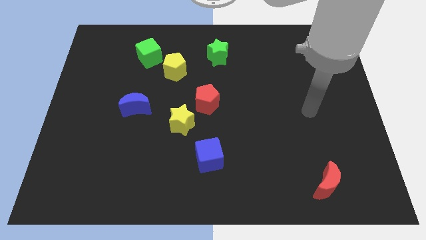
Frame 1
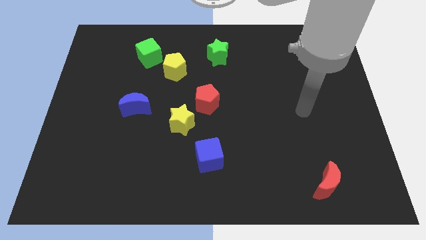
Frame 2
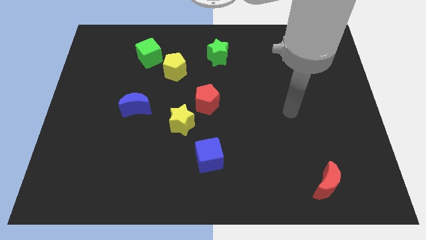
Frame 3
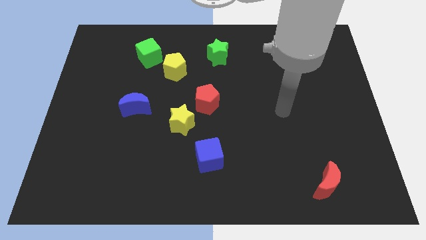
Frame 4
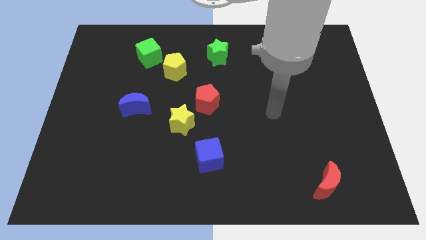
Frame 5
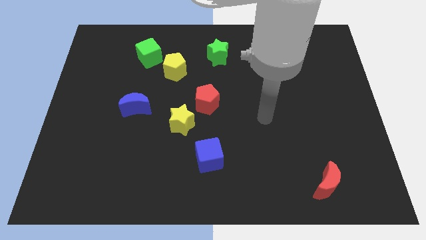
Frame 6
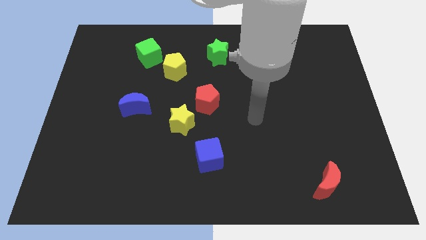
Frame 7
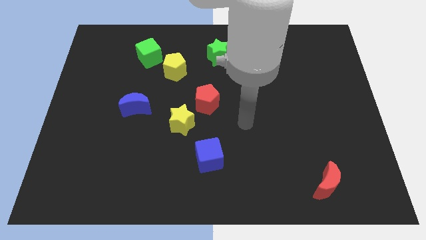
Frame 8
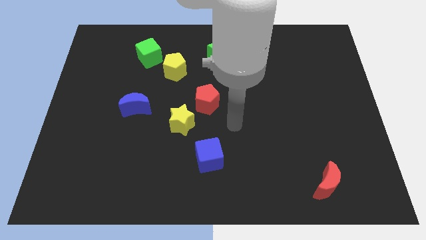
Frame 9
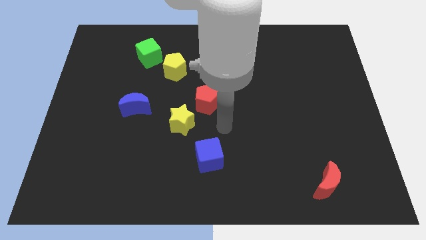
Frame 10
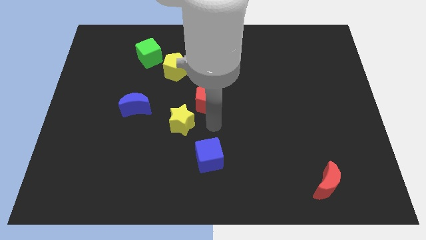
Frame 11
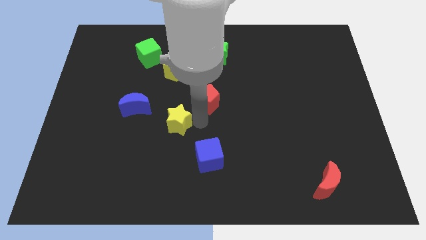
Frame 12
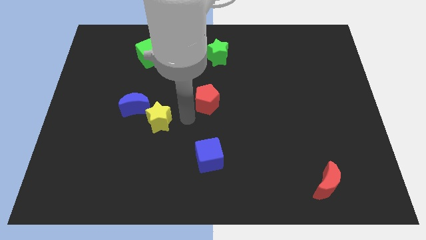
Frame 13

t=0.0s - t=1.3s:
move the red pentagon away from the yellow star

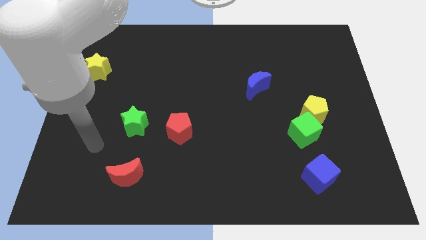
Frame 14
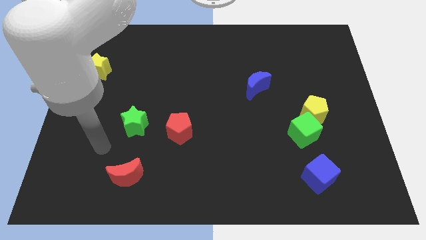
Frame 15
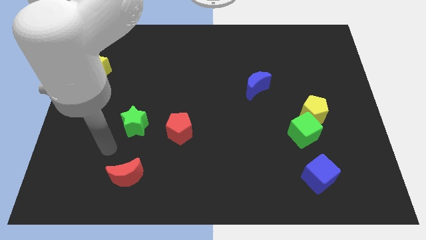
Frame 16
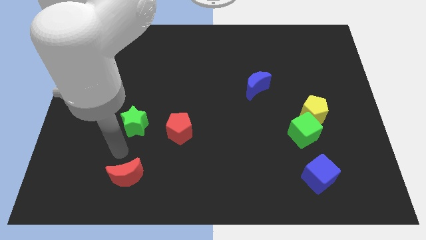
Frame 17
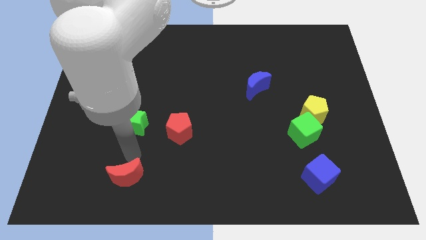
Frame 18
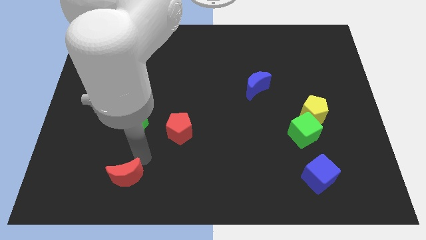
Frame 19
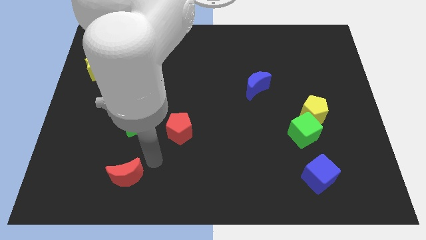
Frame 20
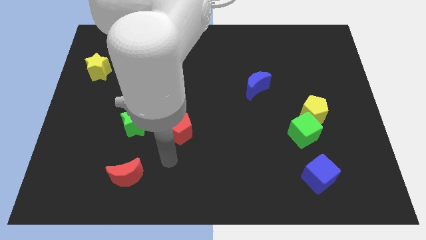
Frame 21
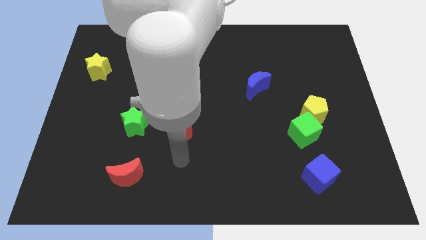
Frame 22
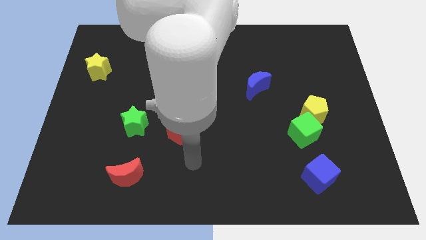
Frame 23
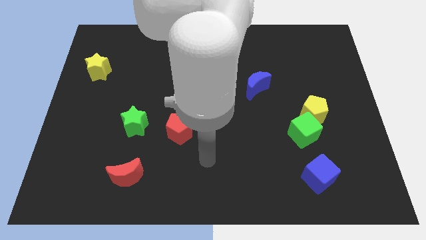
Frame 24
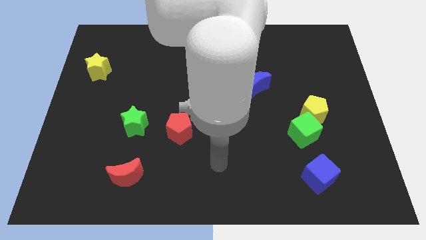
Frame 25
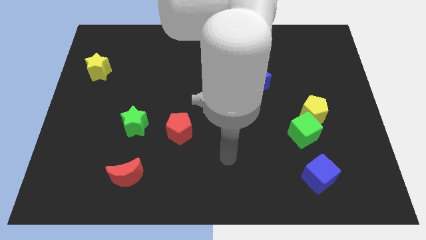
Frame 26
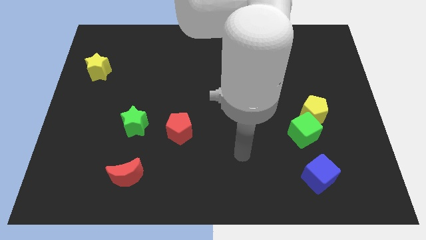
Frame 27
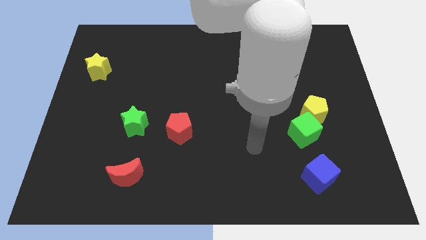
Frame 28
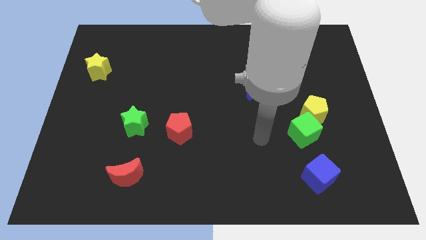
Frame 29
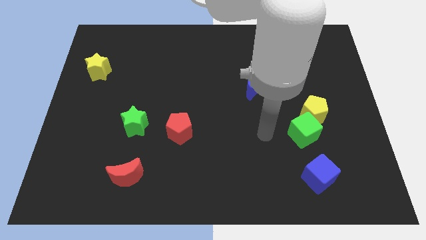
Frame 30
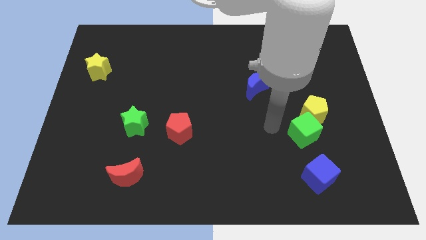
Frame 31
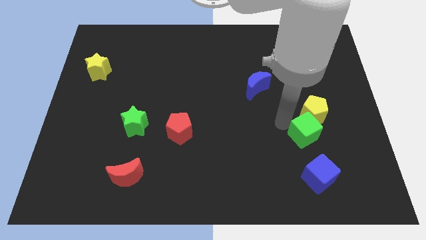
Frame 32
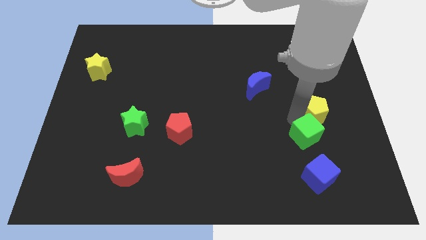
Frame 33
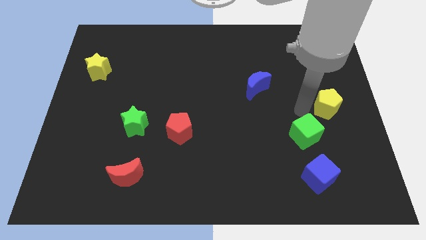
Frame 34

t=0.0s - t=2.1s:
pull the green cube apart from the yellow pentagon

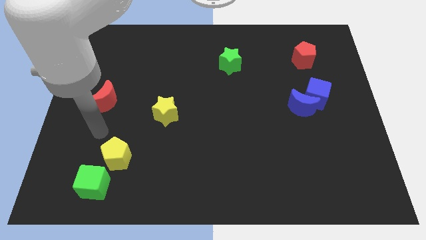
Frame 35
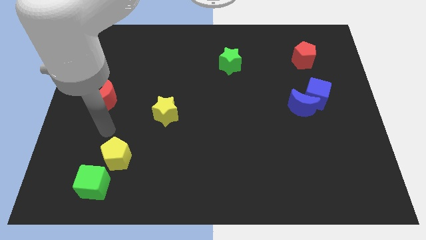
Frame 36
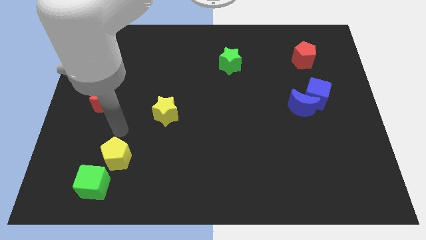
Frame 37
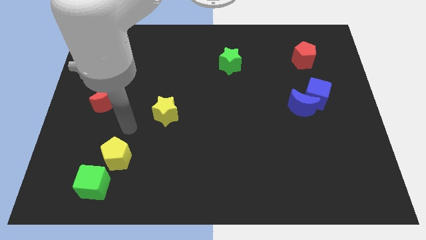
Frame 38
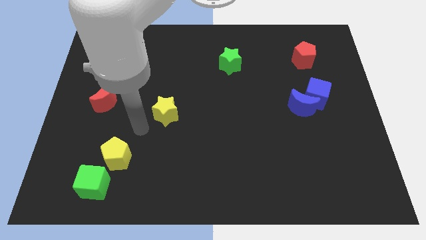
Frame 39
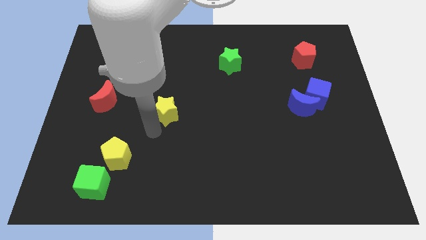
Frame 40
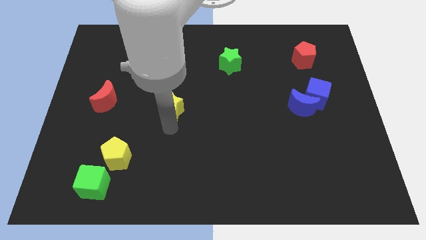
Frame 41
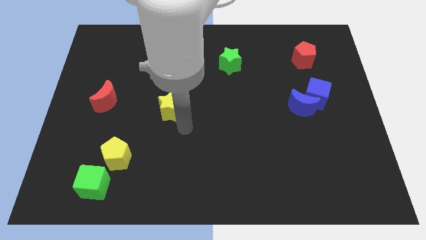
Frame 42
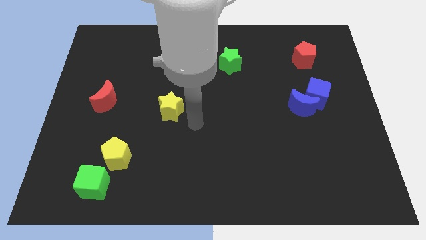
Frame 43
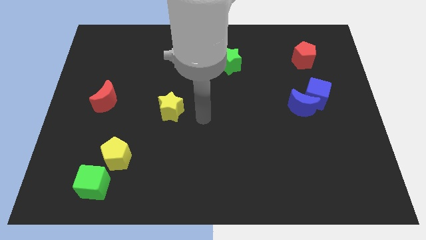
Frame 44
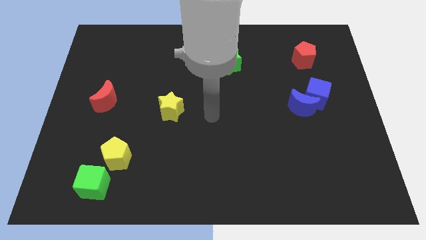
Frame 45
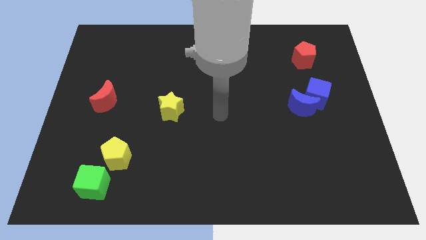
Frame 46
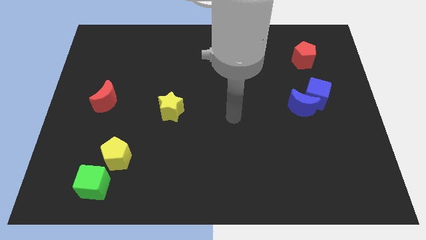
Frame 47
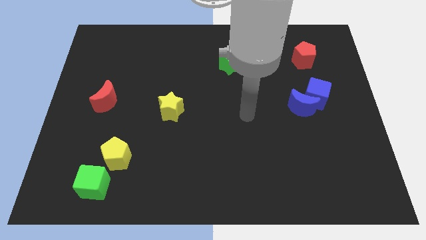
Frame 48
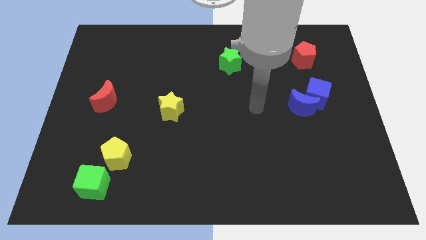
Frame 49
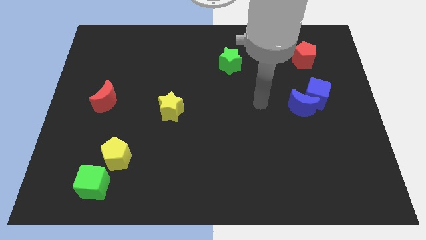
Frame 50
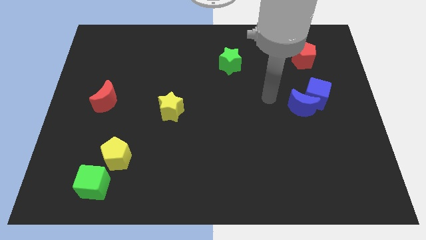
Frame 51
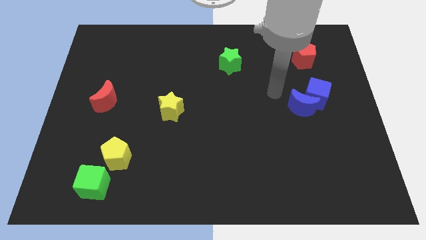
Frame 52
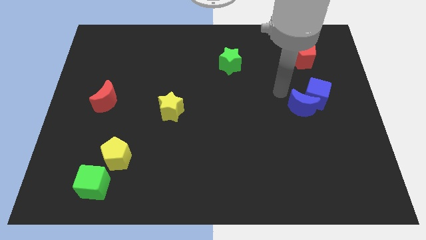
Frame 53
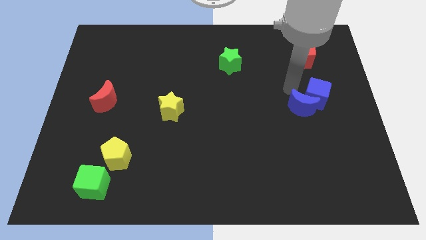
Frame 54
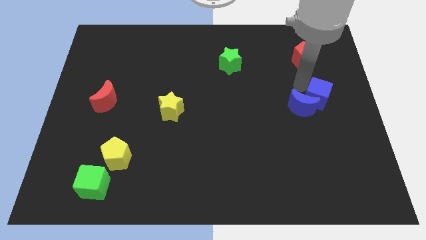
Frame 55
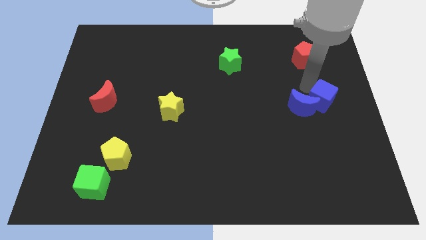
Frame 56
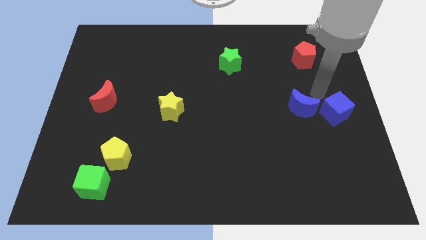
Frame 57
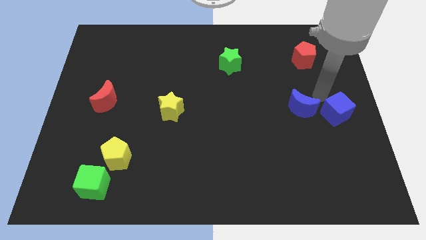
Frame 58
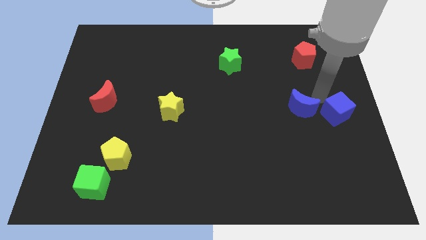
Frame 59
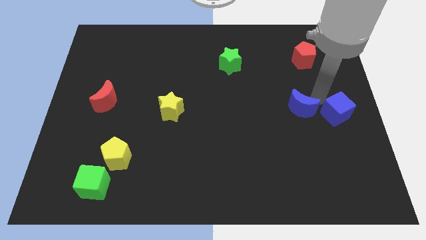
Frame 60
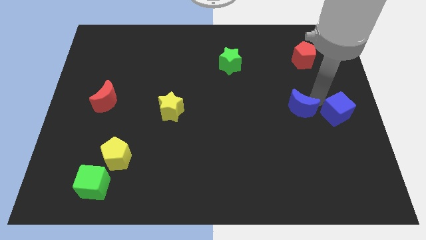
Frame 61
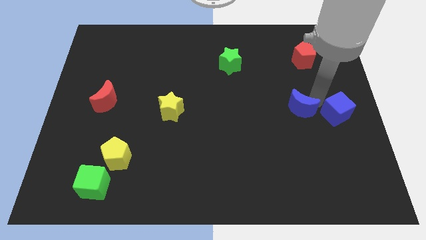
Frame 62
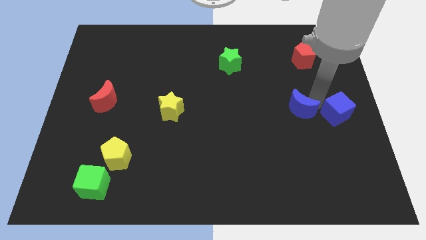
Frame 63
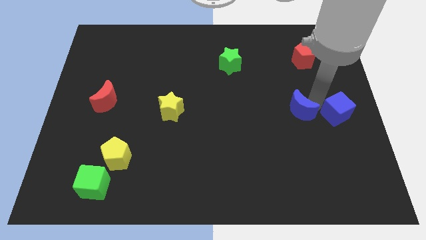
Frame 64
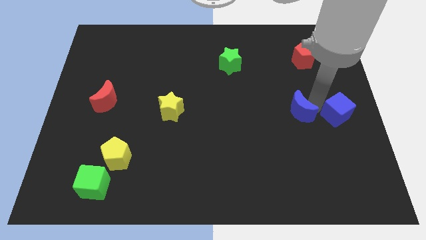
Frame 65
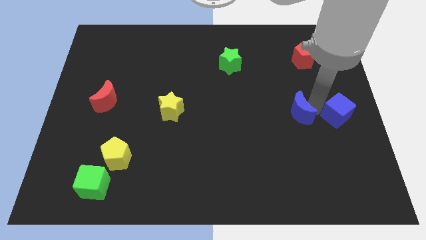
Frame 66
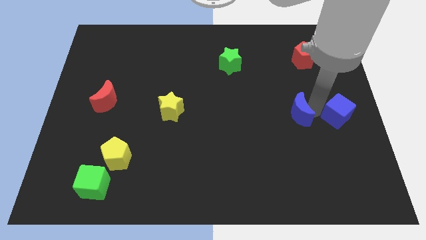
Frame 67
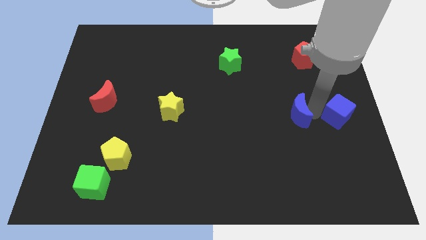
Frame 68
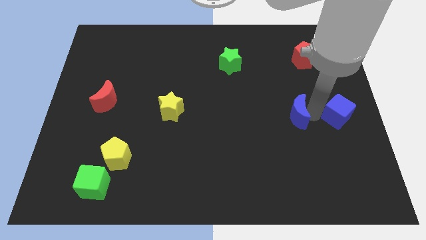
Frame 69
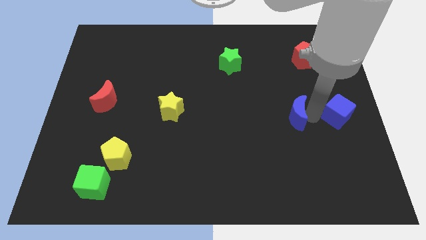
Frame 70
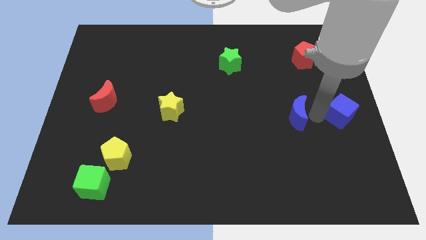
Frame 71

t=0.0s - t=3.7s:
pull the blue moon apart from the blue cube

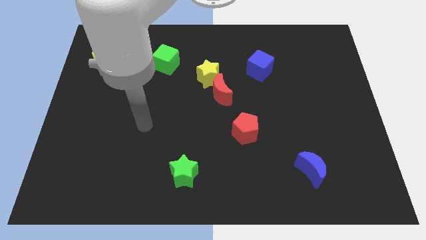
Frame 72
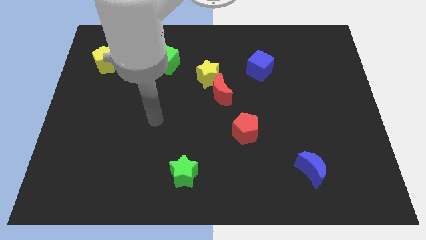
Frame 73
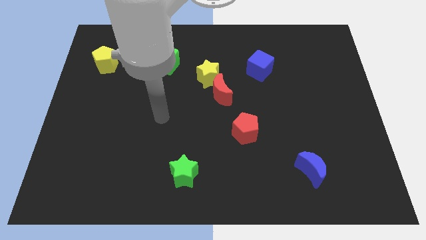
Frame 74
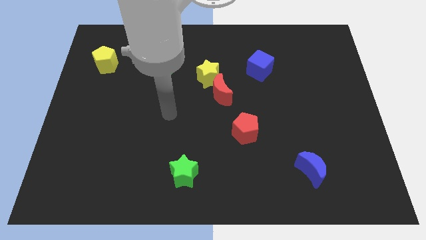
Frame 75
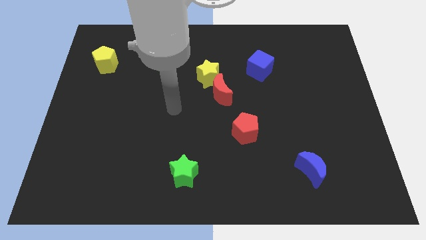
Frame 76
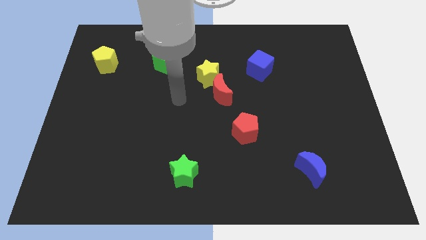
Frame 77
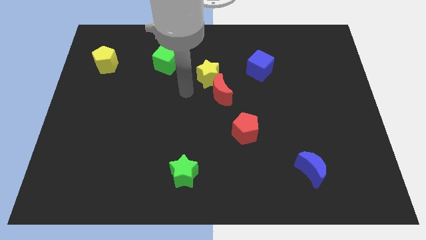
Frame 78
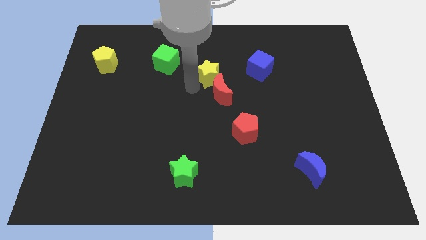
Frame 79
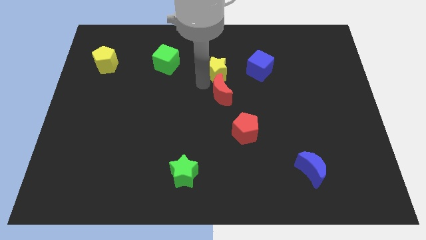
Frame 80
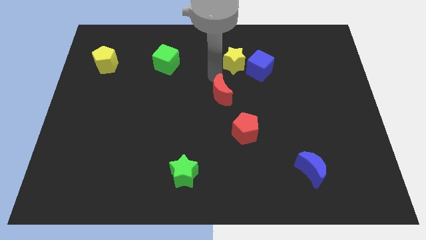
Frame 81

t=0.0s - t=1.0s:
pull the red moon apart from the yellow star

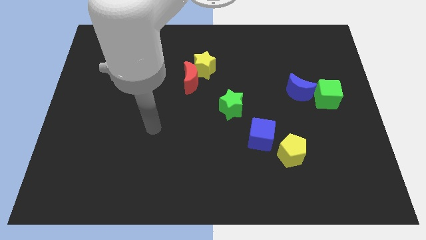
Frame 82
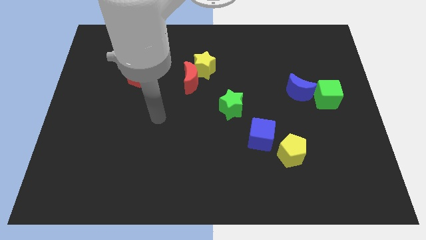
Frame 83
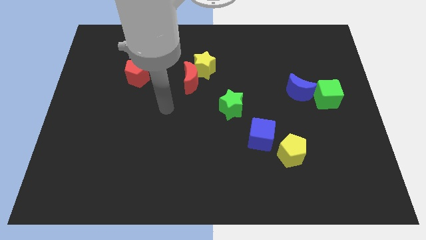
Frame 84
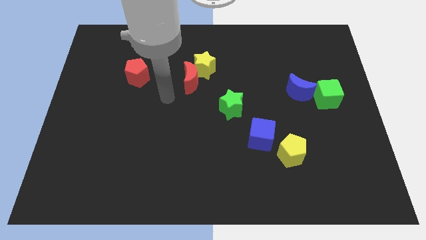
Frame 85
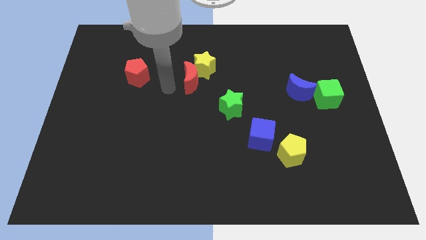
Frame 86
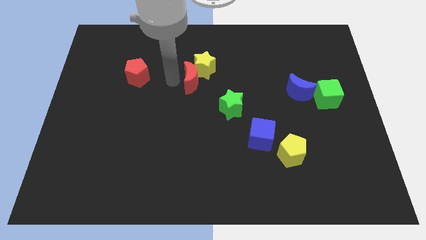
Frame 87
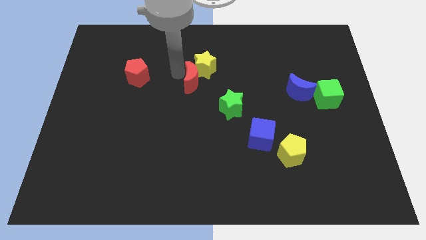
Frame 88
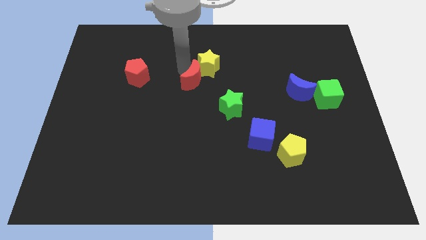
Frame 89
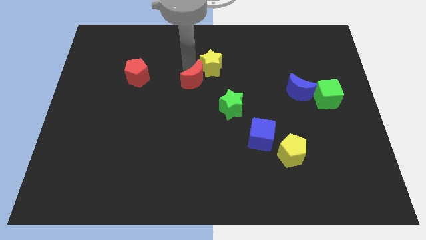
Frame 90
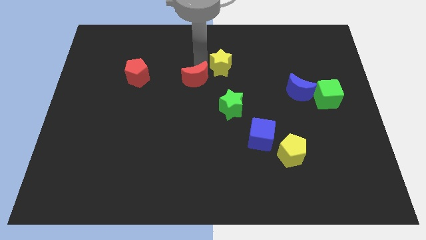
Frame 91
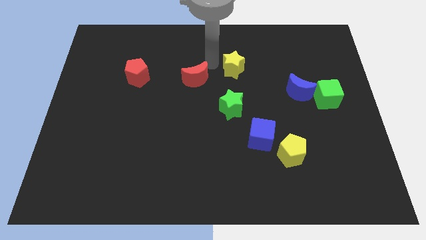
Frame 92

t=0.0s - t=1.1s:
separate the red moon from the yellow star
